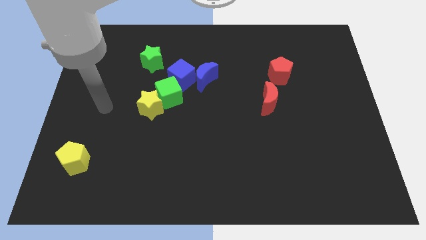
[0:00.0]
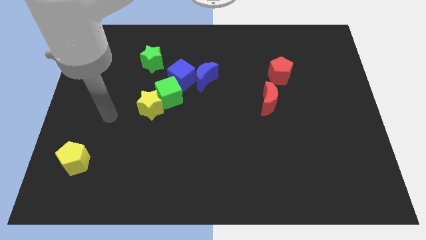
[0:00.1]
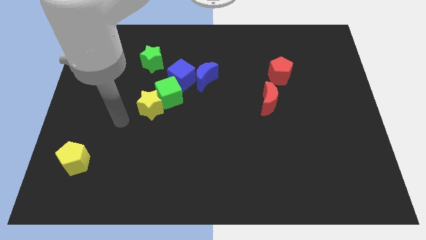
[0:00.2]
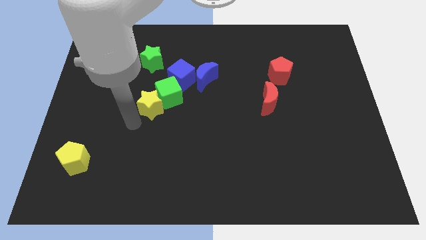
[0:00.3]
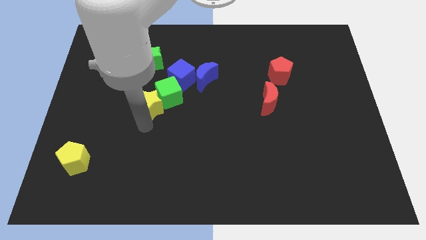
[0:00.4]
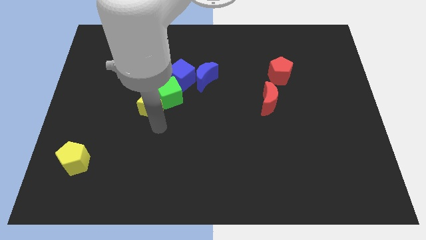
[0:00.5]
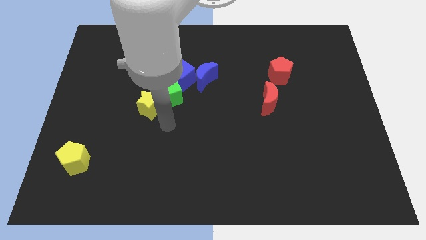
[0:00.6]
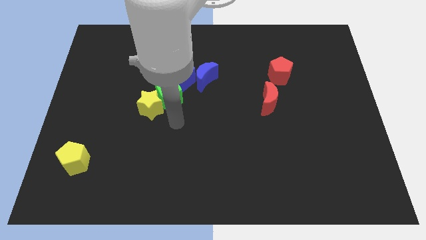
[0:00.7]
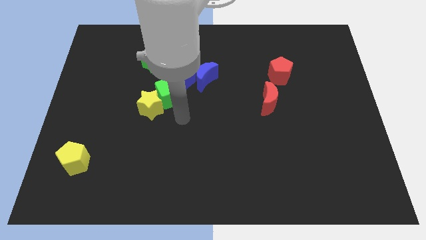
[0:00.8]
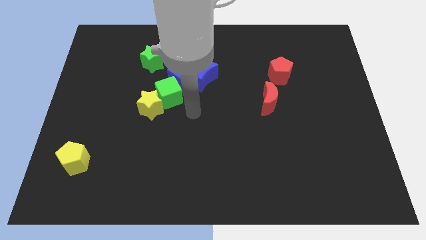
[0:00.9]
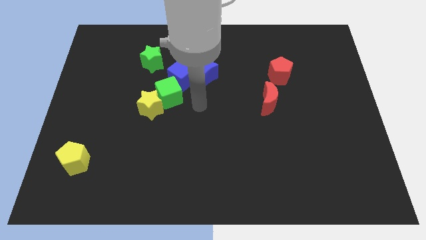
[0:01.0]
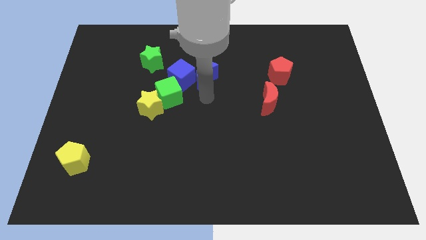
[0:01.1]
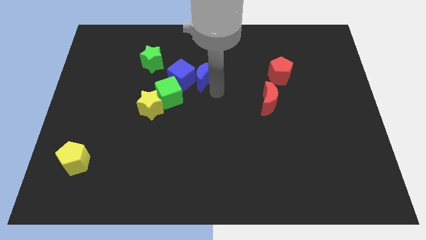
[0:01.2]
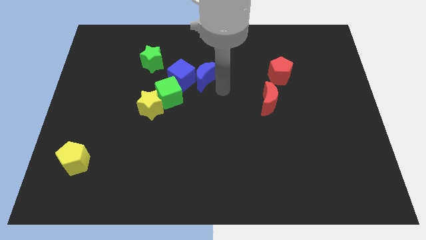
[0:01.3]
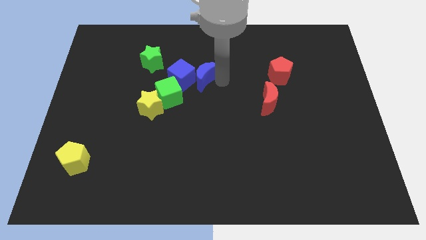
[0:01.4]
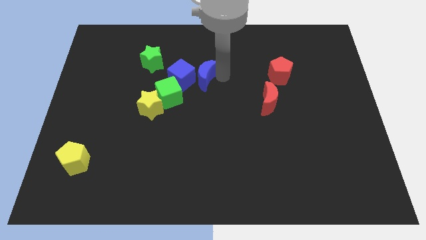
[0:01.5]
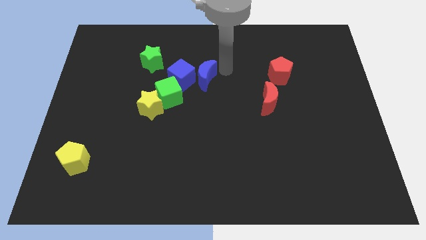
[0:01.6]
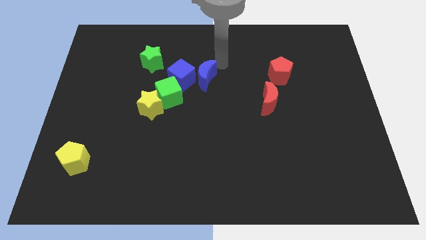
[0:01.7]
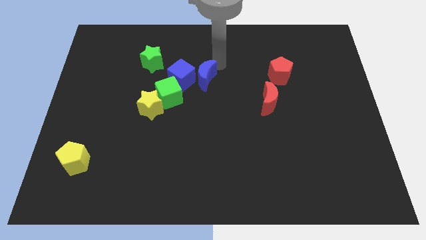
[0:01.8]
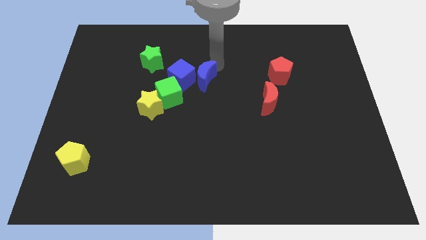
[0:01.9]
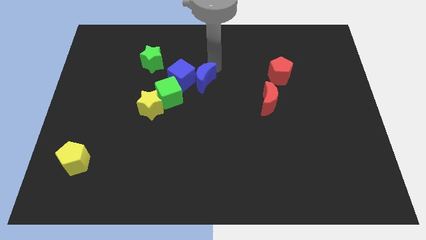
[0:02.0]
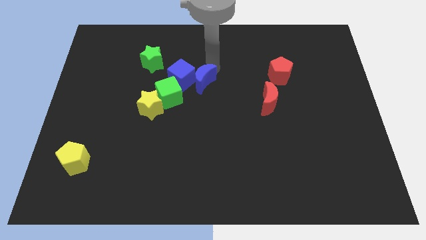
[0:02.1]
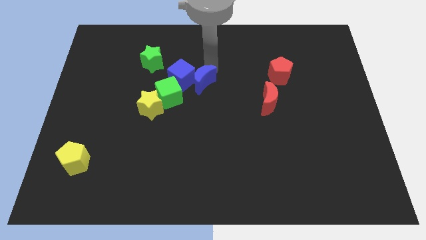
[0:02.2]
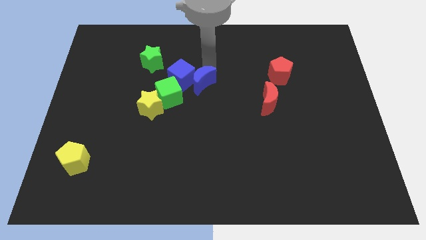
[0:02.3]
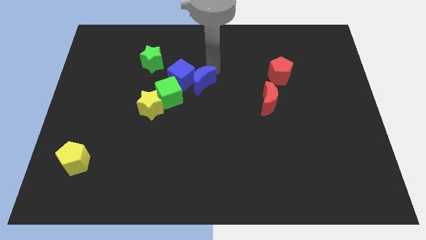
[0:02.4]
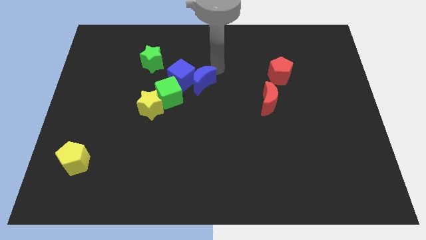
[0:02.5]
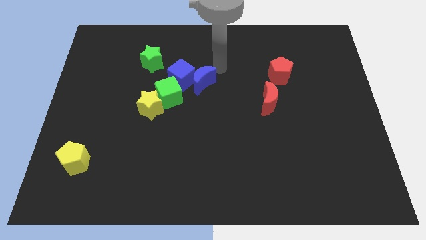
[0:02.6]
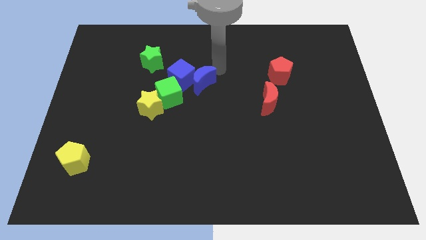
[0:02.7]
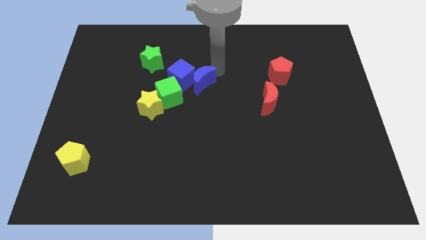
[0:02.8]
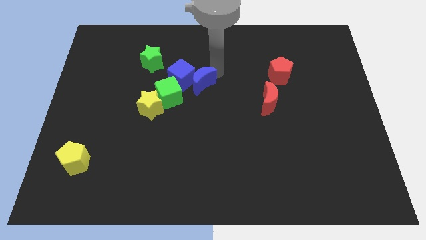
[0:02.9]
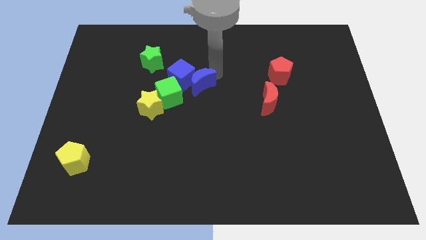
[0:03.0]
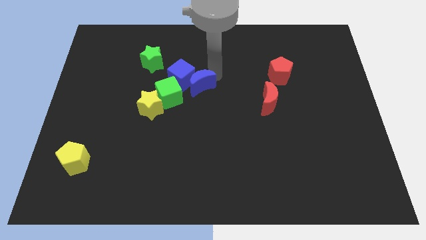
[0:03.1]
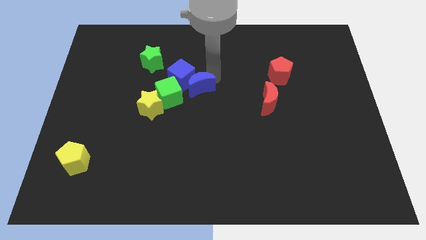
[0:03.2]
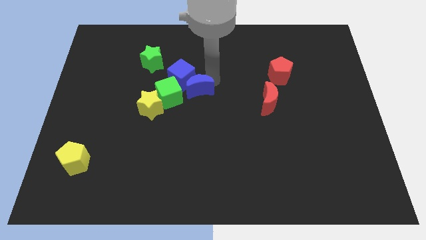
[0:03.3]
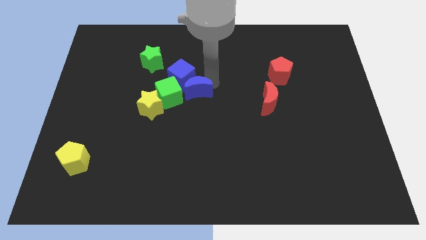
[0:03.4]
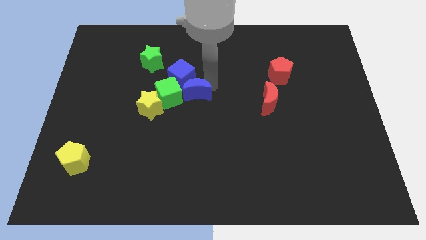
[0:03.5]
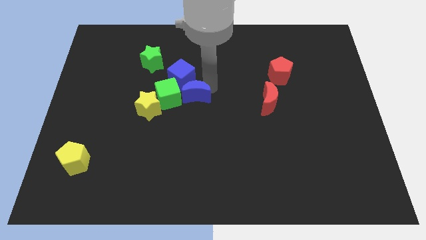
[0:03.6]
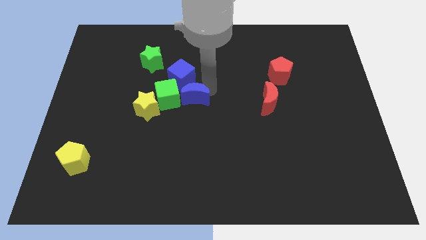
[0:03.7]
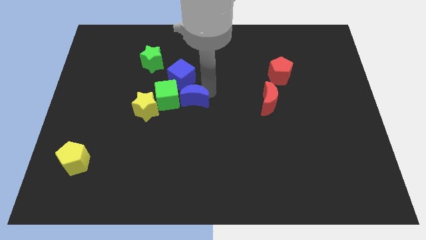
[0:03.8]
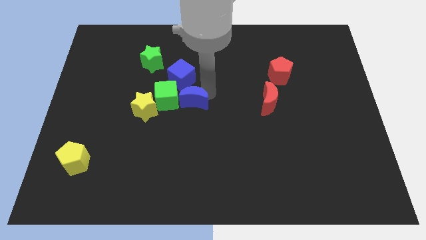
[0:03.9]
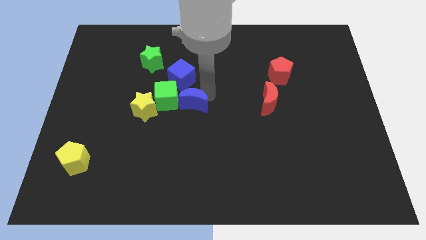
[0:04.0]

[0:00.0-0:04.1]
move the blue moon a little bit down and left diagonally

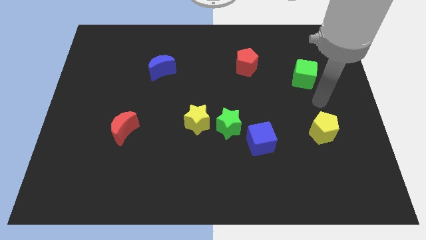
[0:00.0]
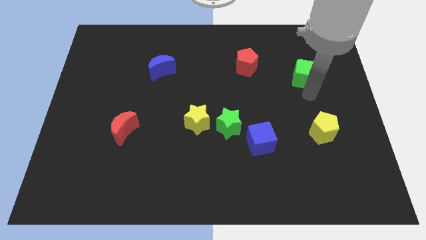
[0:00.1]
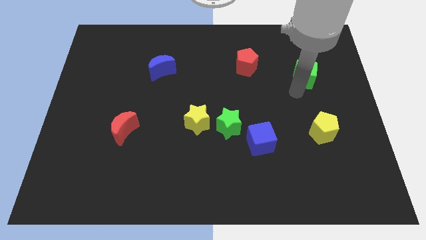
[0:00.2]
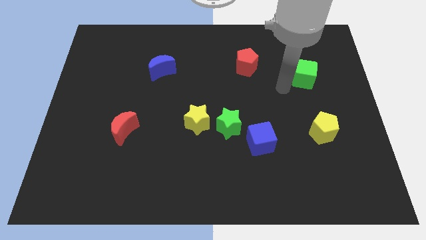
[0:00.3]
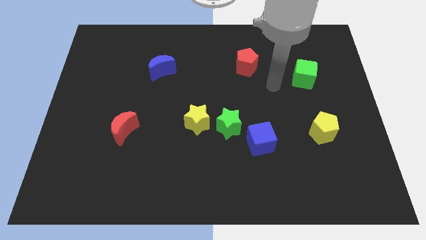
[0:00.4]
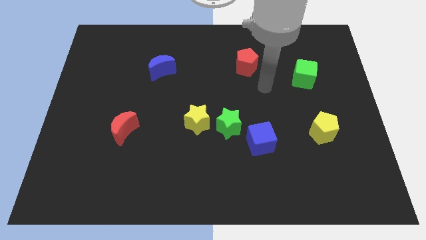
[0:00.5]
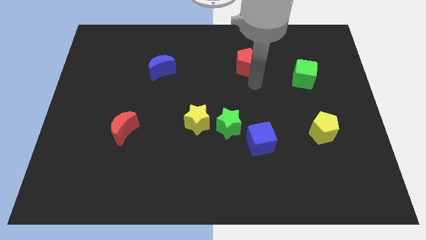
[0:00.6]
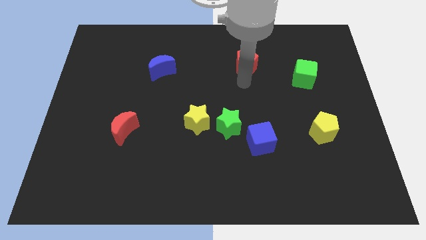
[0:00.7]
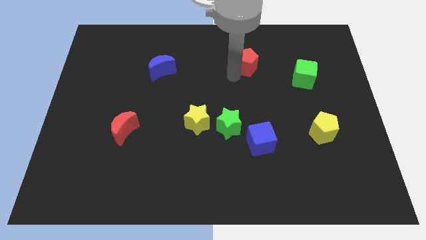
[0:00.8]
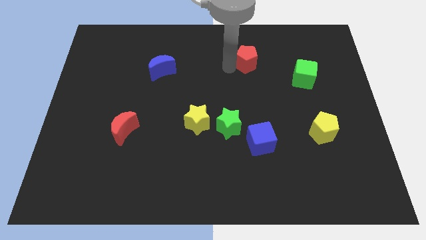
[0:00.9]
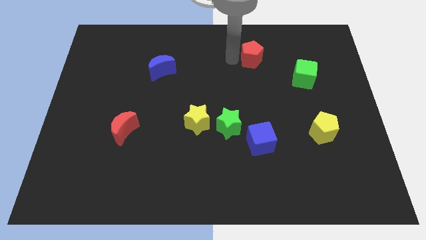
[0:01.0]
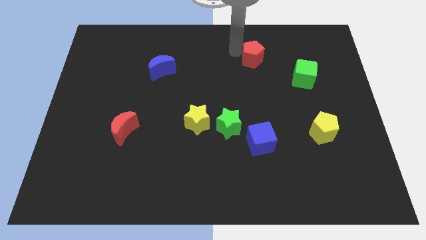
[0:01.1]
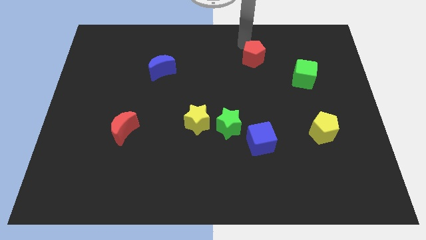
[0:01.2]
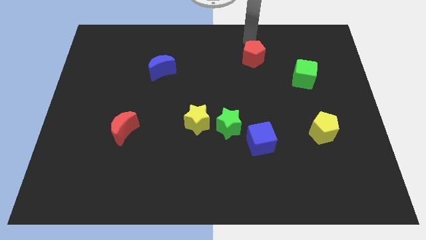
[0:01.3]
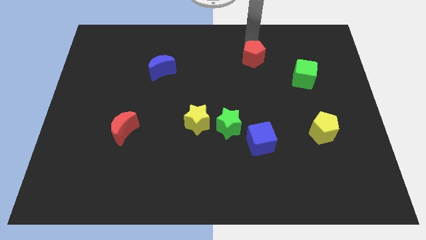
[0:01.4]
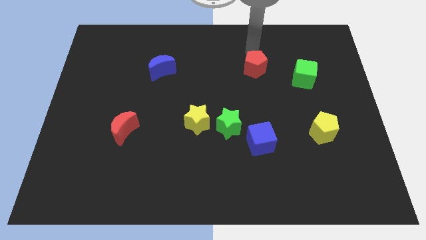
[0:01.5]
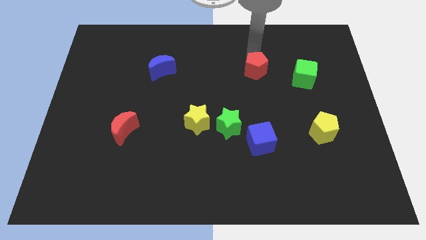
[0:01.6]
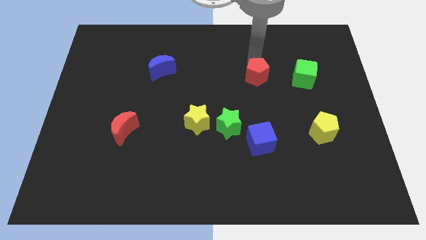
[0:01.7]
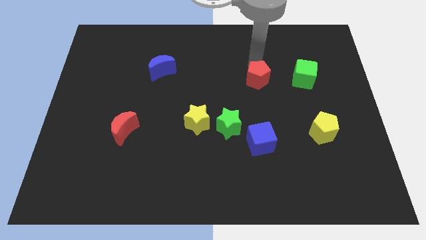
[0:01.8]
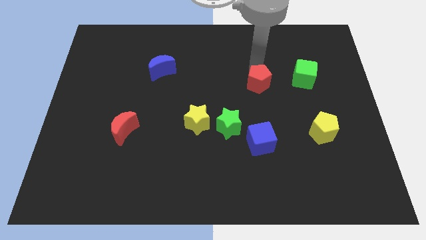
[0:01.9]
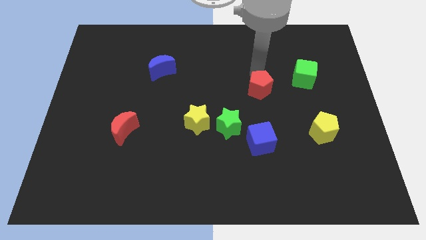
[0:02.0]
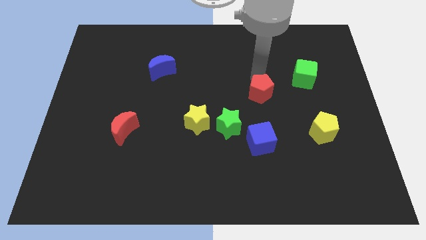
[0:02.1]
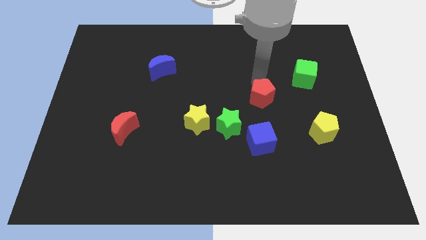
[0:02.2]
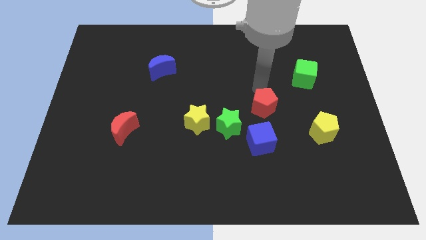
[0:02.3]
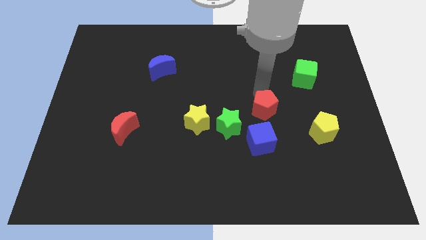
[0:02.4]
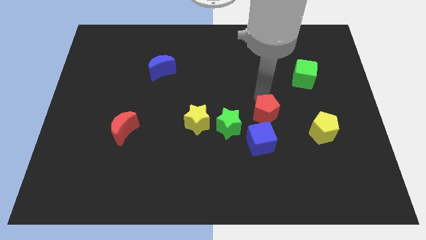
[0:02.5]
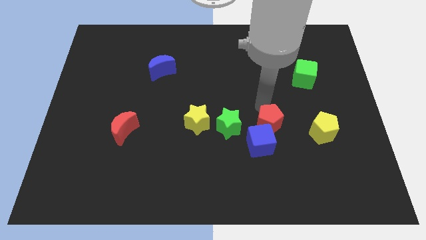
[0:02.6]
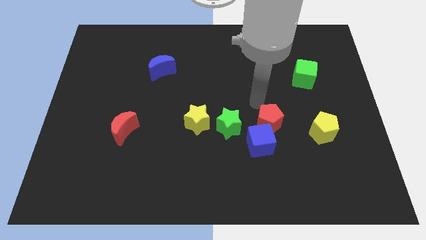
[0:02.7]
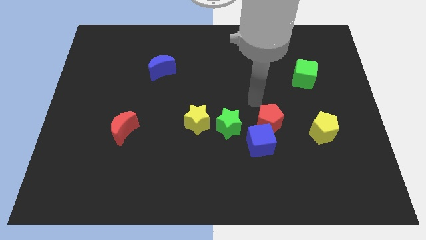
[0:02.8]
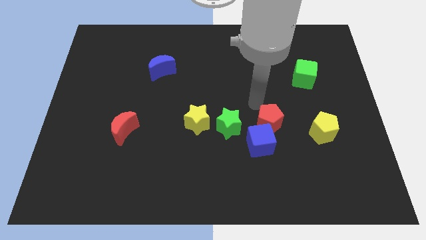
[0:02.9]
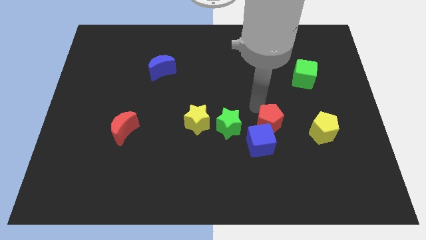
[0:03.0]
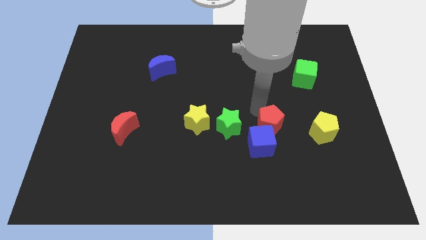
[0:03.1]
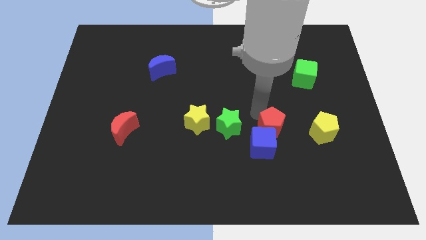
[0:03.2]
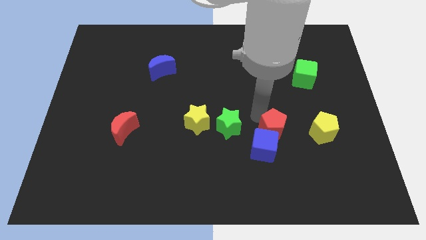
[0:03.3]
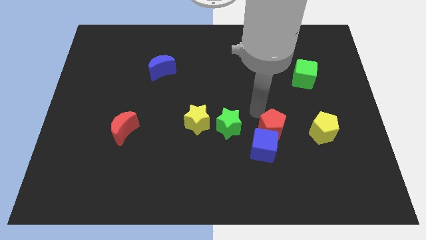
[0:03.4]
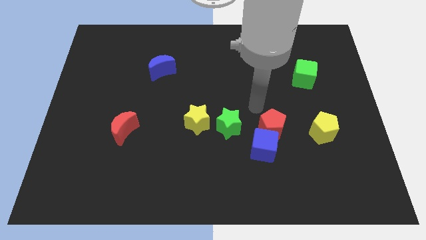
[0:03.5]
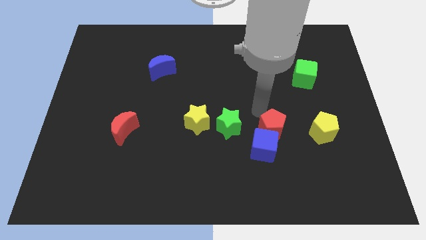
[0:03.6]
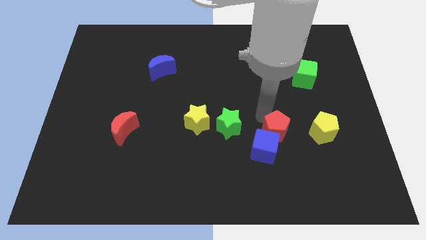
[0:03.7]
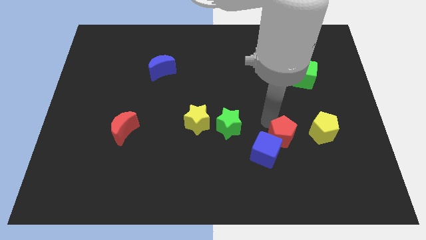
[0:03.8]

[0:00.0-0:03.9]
slide the red pentagon downwards

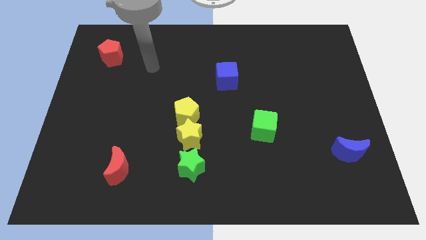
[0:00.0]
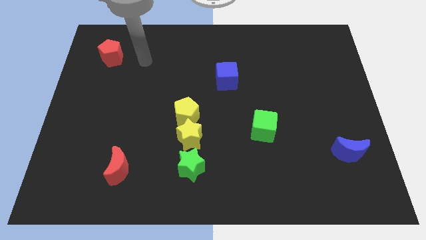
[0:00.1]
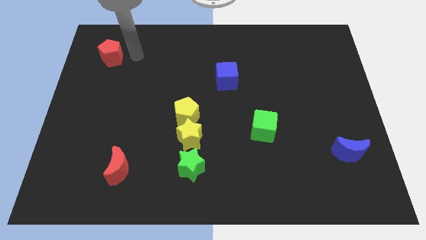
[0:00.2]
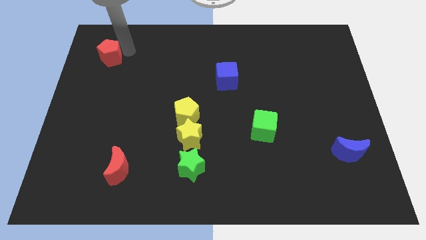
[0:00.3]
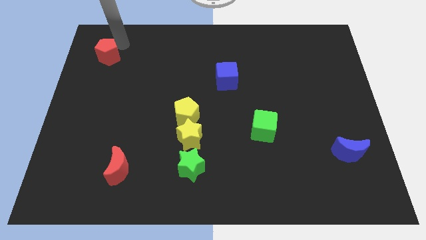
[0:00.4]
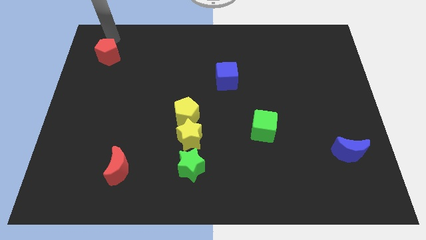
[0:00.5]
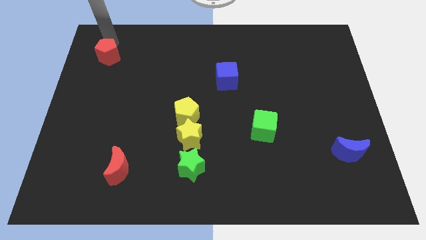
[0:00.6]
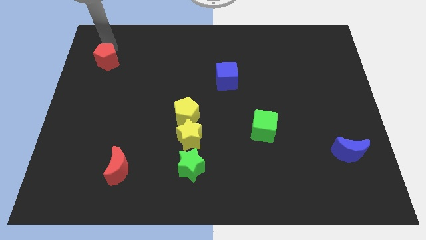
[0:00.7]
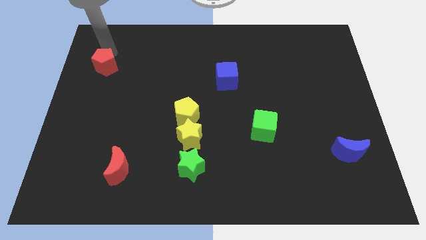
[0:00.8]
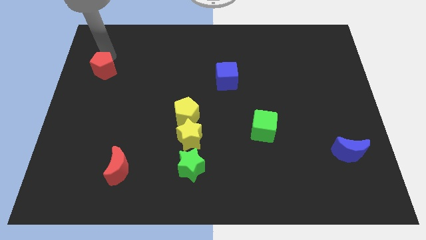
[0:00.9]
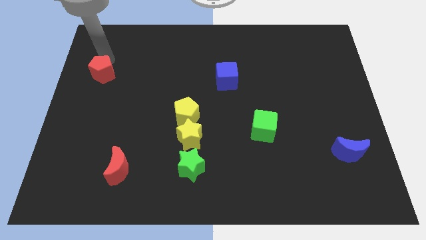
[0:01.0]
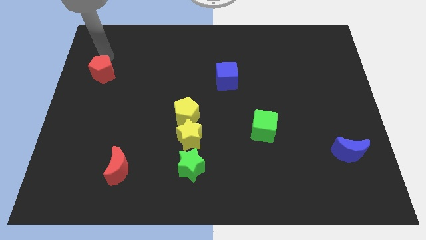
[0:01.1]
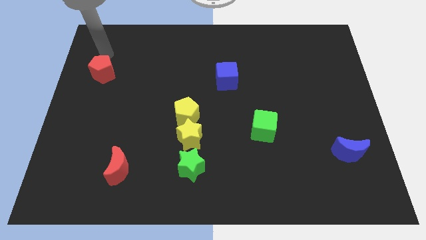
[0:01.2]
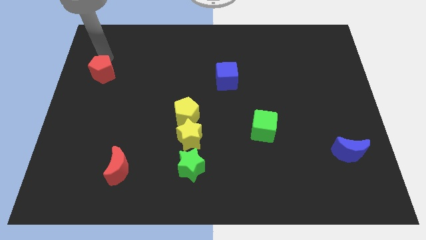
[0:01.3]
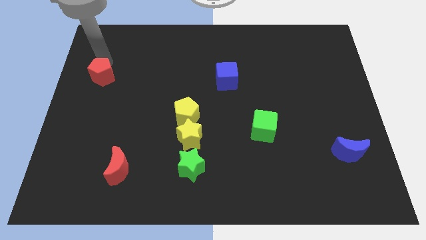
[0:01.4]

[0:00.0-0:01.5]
move the red pentagon a bit downwards
